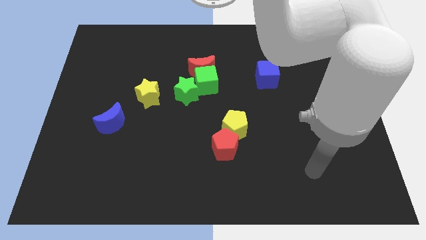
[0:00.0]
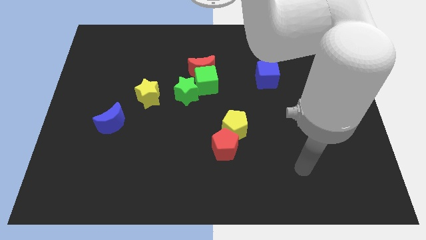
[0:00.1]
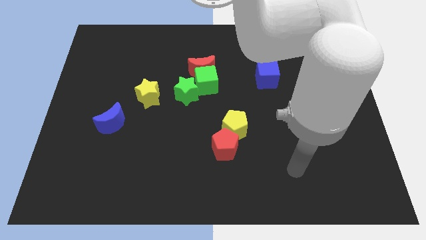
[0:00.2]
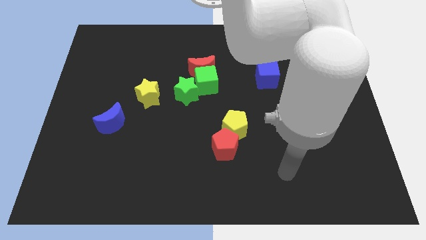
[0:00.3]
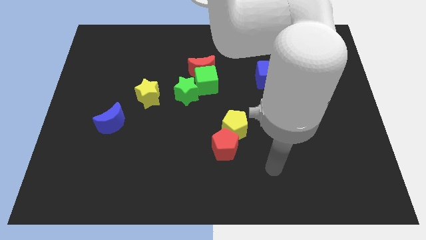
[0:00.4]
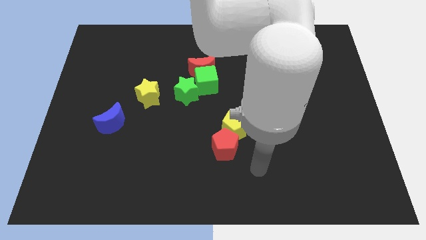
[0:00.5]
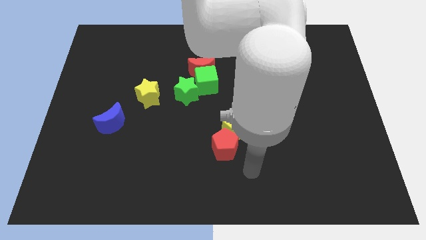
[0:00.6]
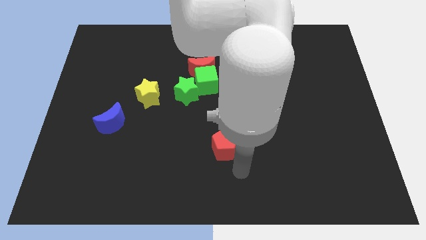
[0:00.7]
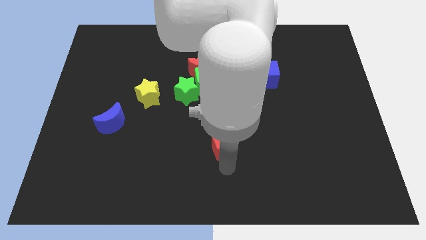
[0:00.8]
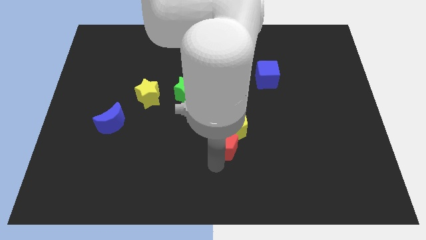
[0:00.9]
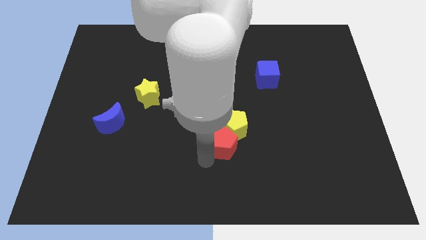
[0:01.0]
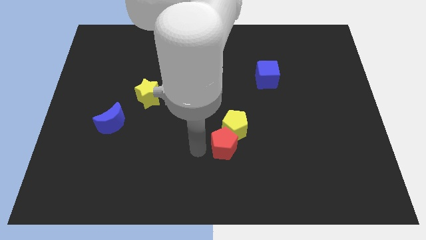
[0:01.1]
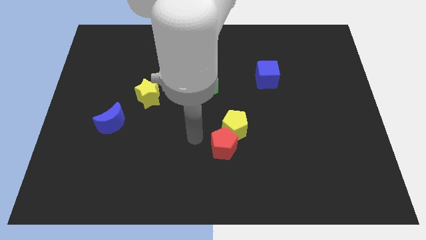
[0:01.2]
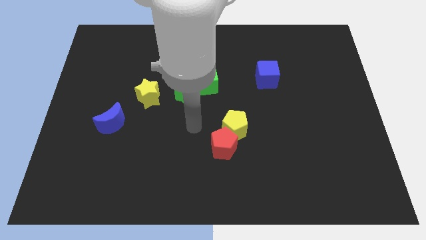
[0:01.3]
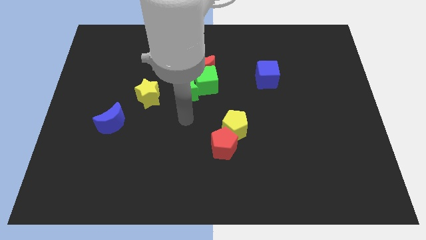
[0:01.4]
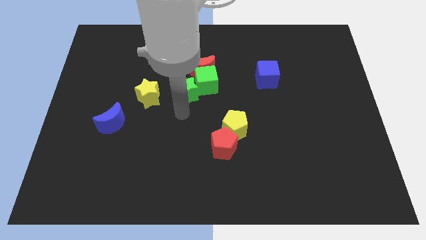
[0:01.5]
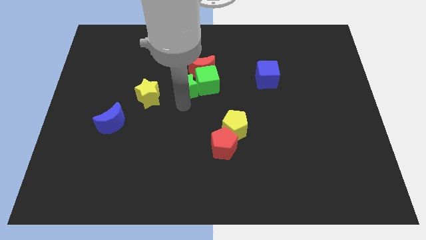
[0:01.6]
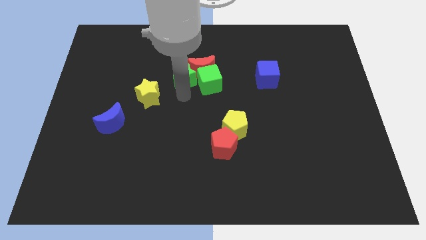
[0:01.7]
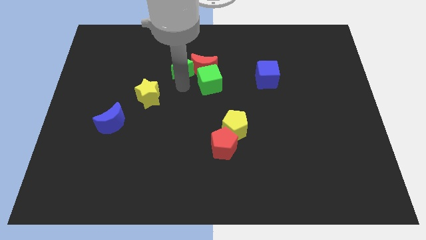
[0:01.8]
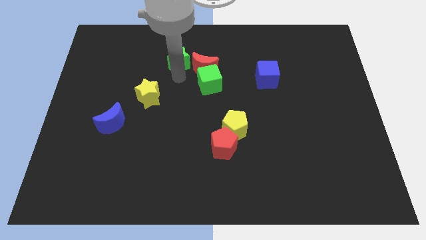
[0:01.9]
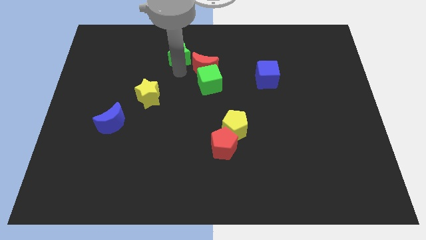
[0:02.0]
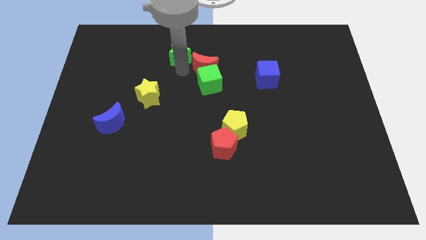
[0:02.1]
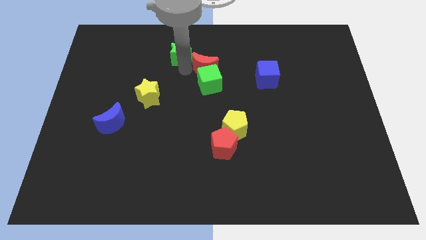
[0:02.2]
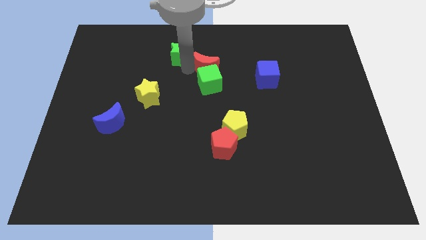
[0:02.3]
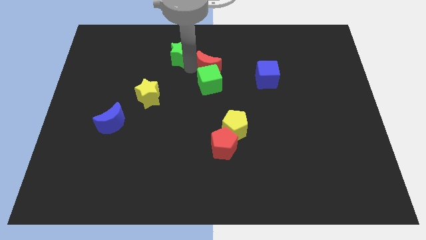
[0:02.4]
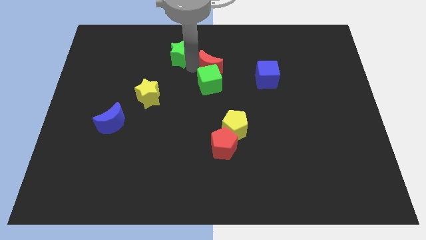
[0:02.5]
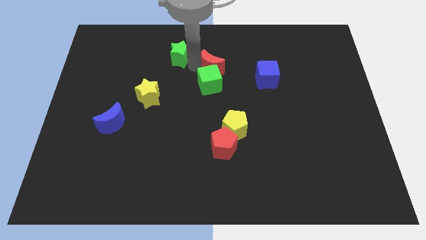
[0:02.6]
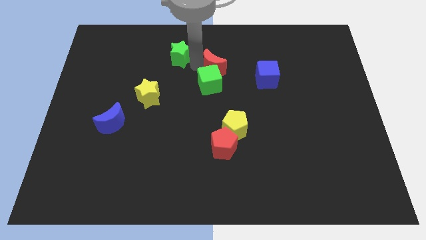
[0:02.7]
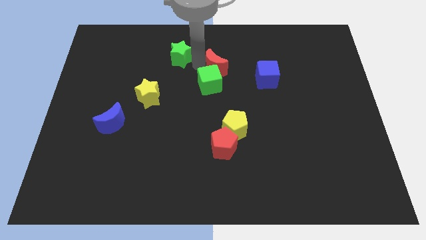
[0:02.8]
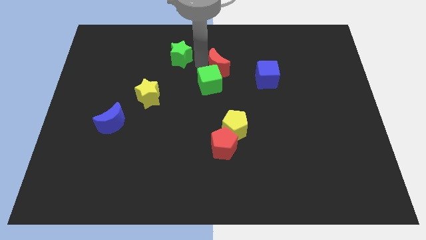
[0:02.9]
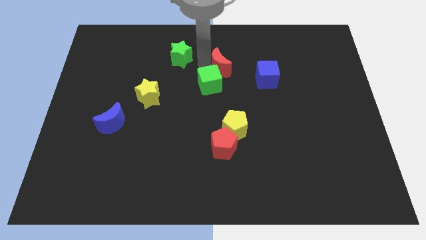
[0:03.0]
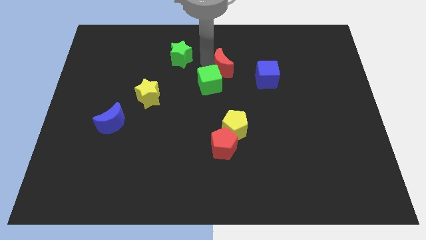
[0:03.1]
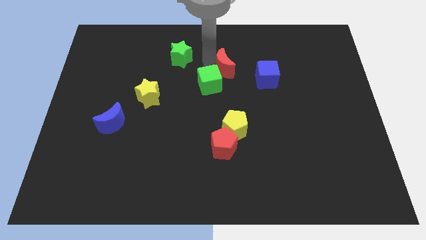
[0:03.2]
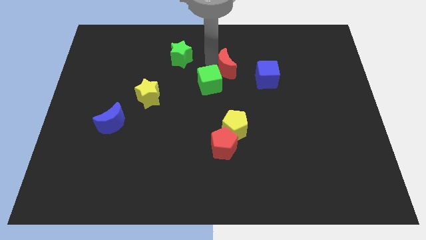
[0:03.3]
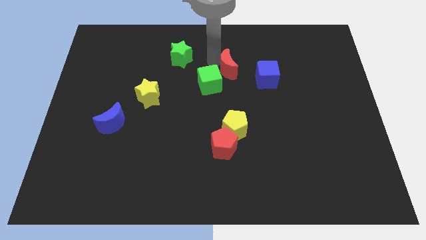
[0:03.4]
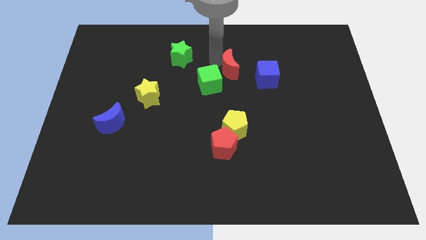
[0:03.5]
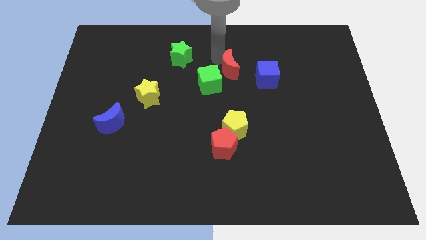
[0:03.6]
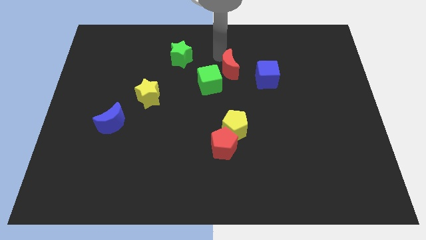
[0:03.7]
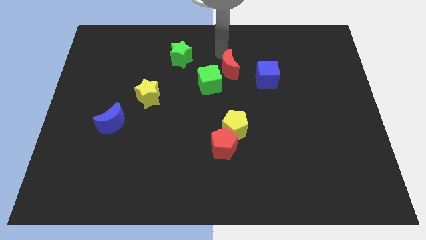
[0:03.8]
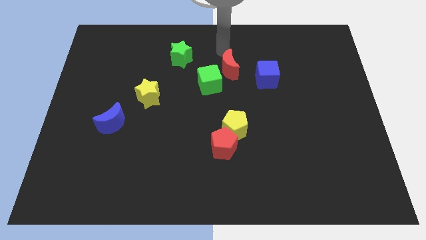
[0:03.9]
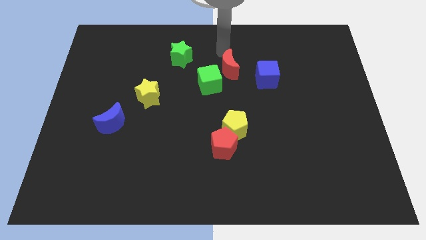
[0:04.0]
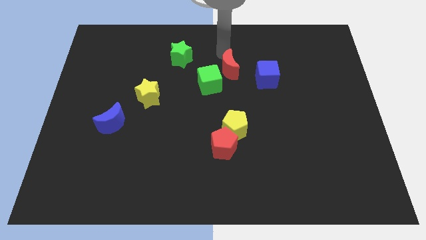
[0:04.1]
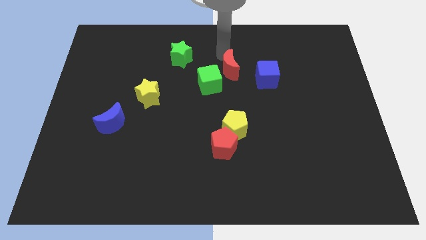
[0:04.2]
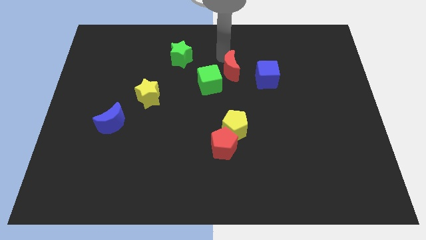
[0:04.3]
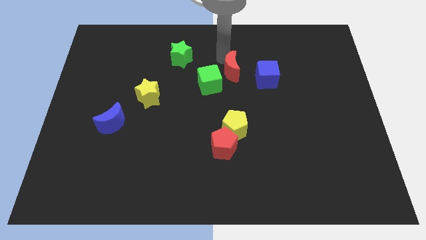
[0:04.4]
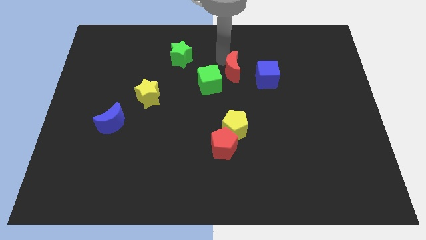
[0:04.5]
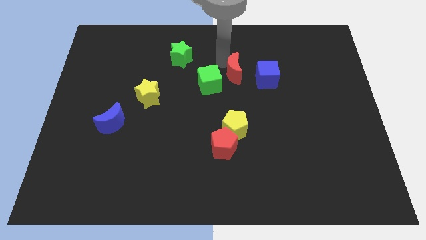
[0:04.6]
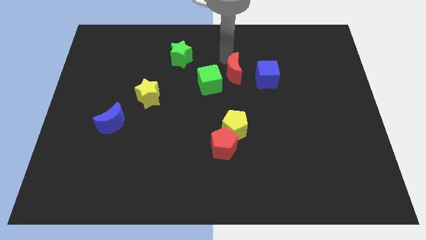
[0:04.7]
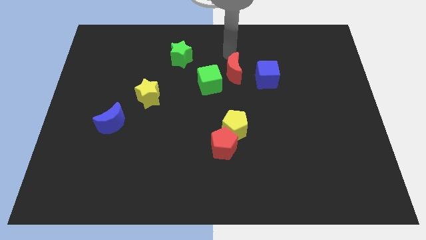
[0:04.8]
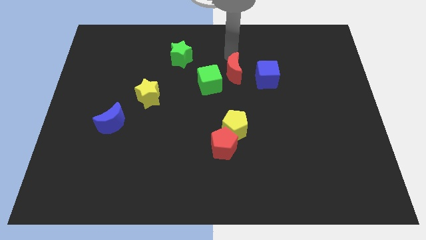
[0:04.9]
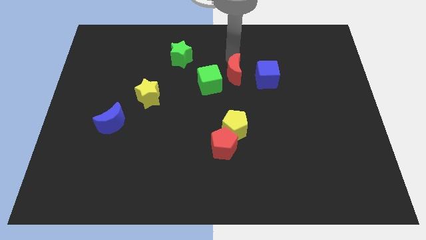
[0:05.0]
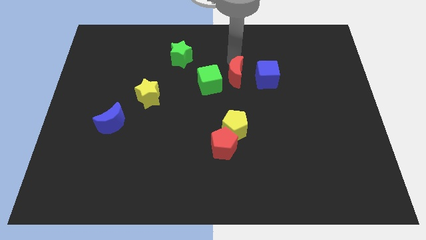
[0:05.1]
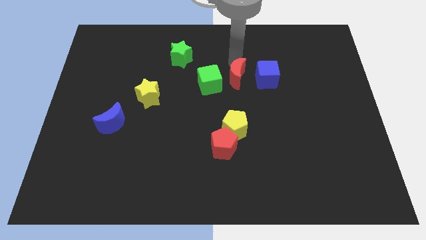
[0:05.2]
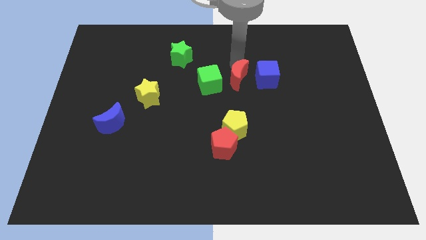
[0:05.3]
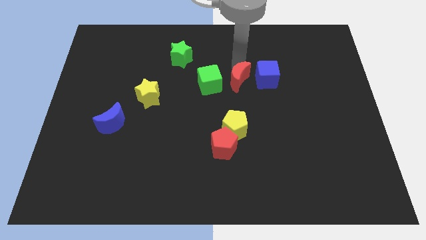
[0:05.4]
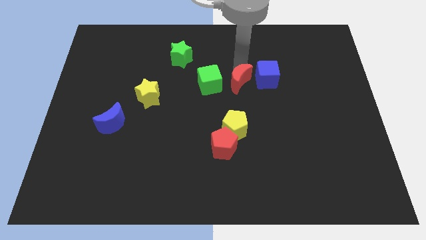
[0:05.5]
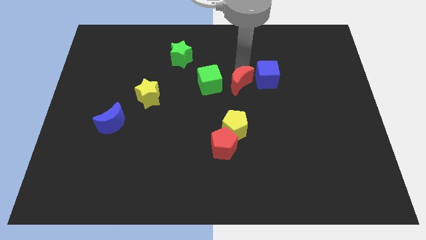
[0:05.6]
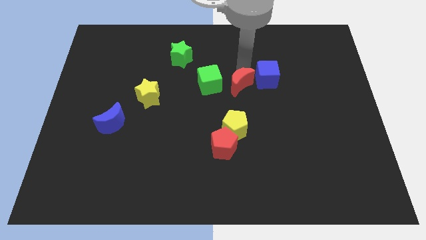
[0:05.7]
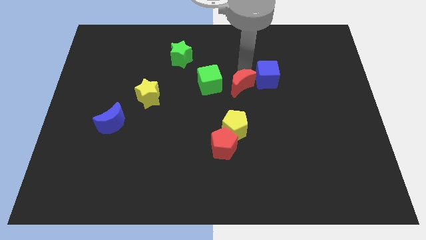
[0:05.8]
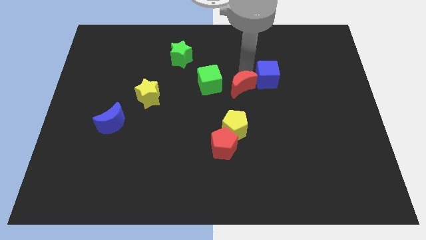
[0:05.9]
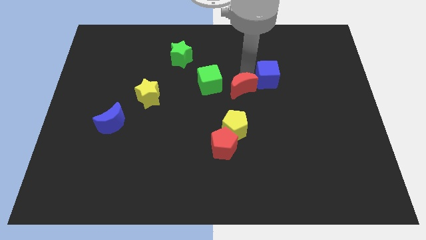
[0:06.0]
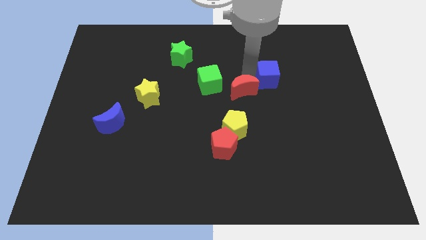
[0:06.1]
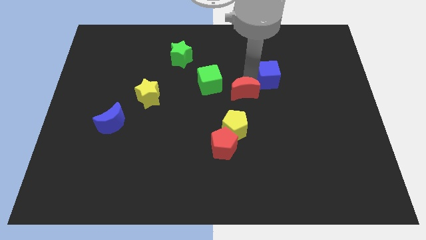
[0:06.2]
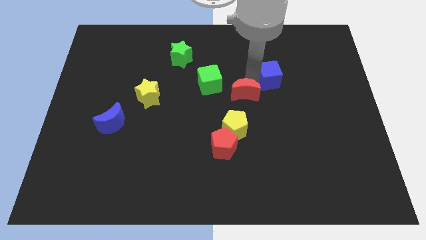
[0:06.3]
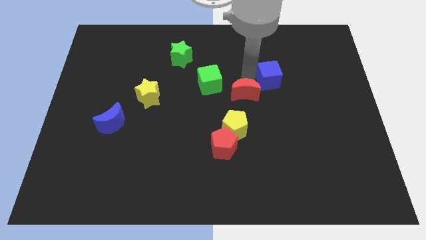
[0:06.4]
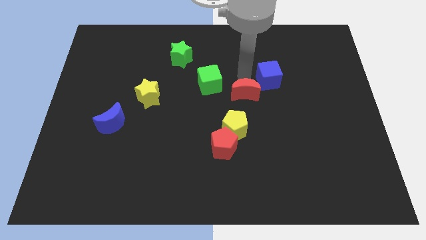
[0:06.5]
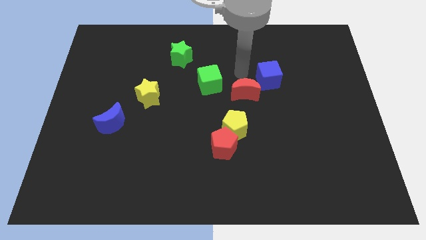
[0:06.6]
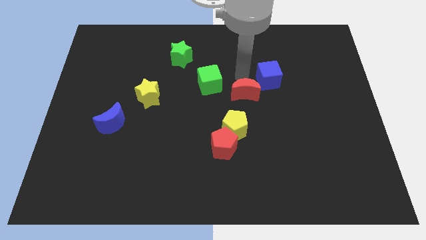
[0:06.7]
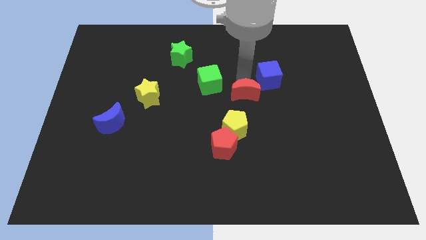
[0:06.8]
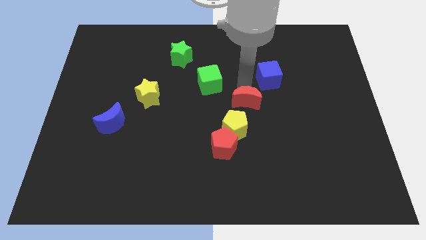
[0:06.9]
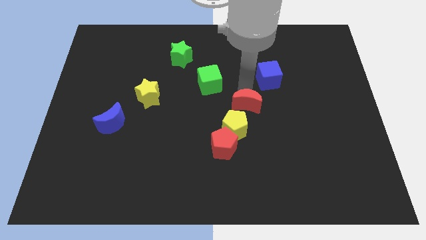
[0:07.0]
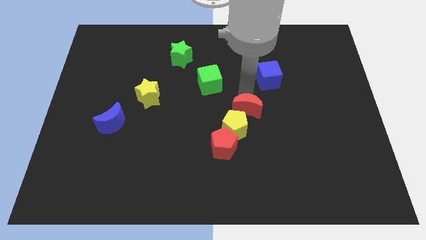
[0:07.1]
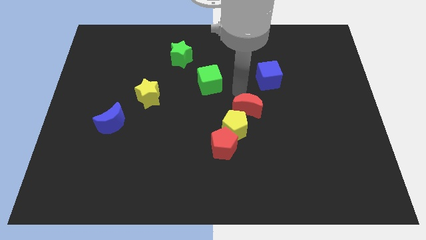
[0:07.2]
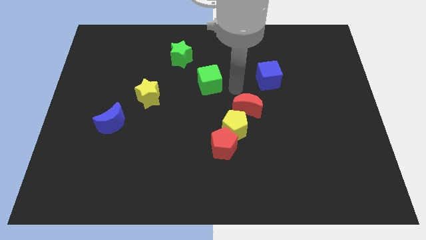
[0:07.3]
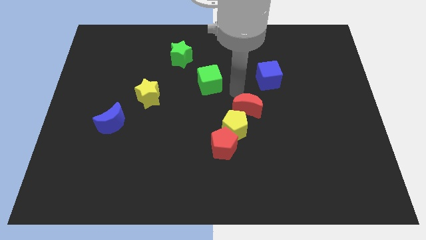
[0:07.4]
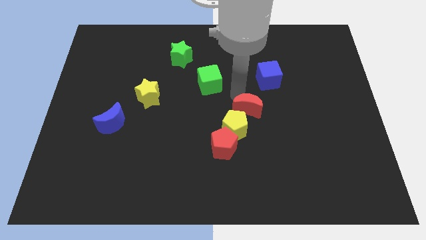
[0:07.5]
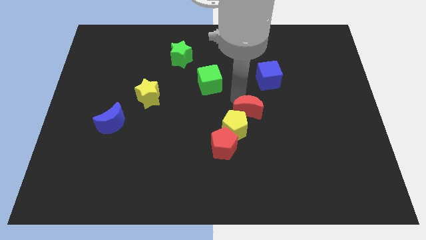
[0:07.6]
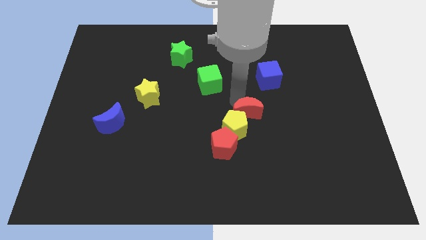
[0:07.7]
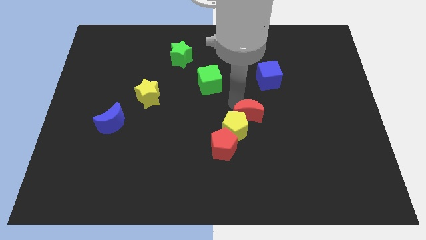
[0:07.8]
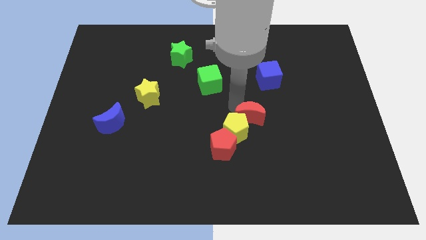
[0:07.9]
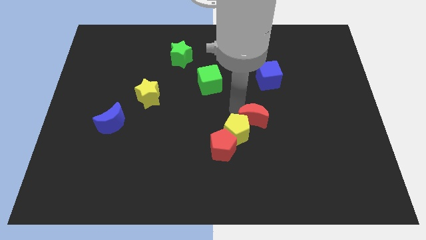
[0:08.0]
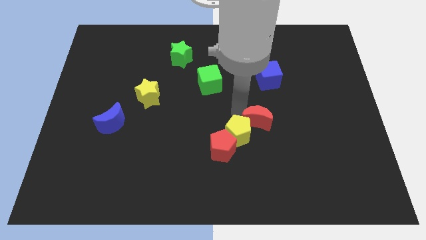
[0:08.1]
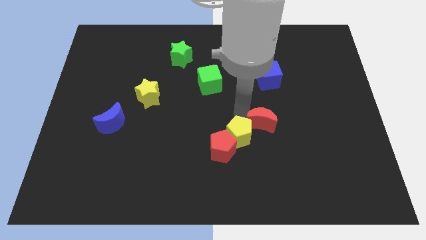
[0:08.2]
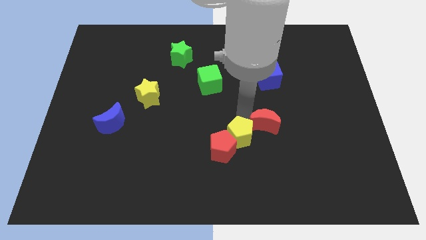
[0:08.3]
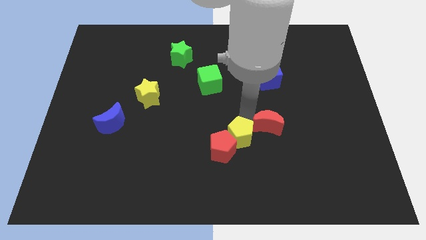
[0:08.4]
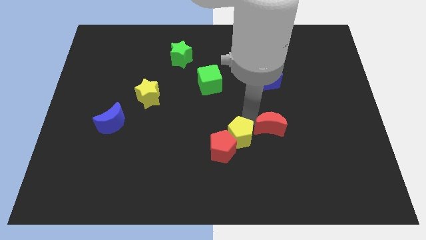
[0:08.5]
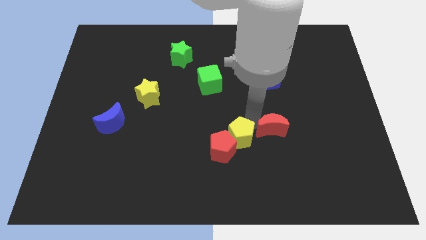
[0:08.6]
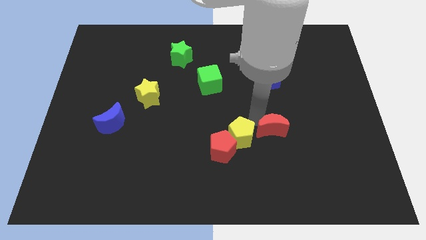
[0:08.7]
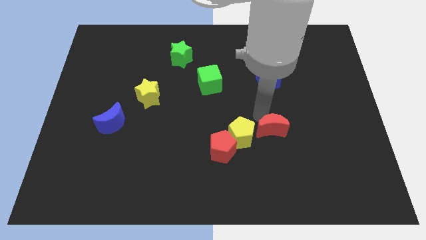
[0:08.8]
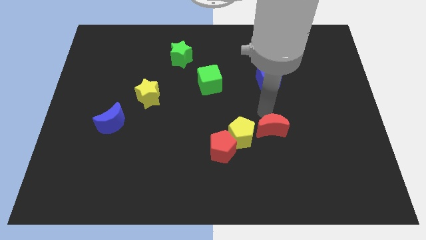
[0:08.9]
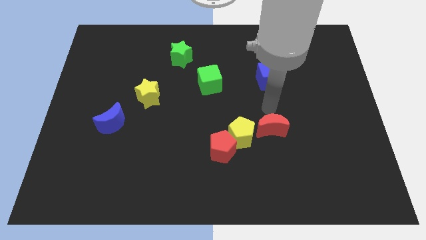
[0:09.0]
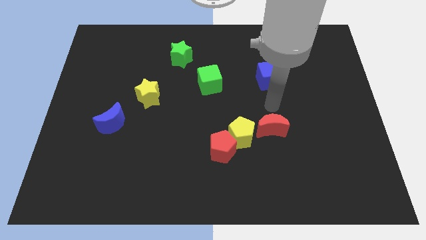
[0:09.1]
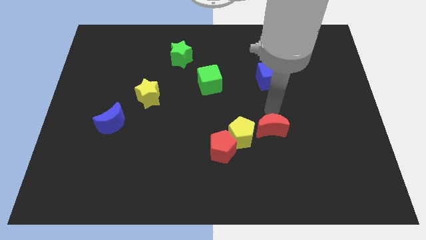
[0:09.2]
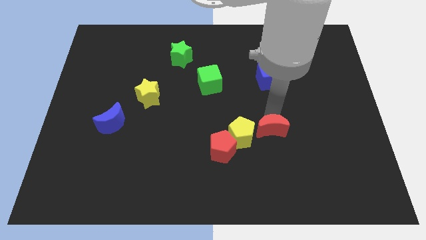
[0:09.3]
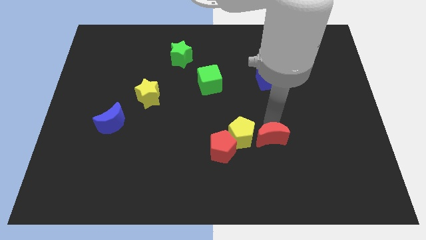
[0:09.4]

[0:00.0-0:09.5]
push the red moon right of the red pentagon
